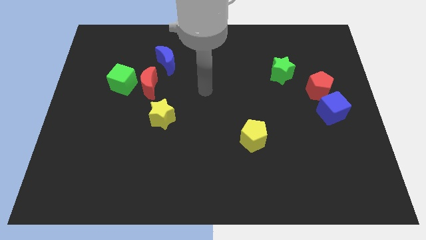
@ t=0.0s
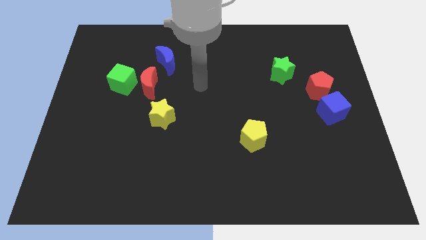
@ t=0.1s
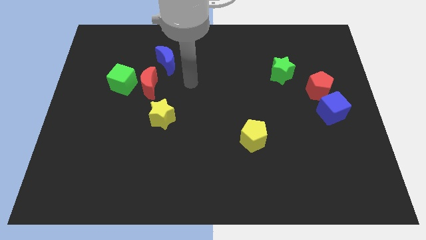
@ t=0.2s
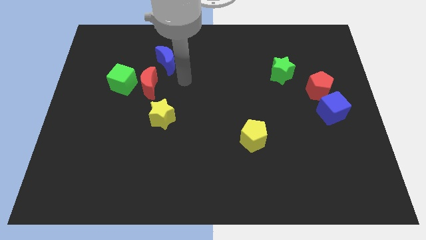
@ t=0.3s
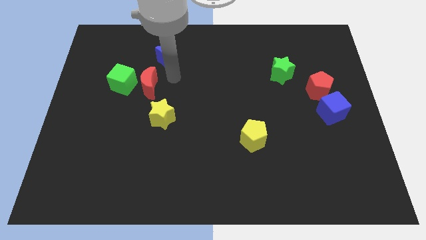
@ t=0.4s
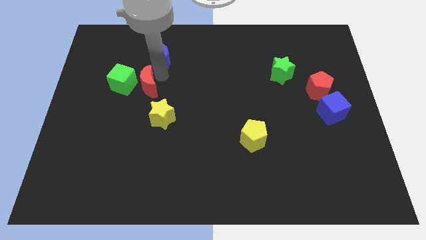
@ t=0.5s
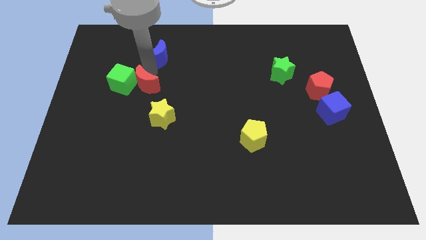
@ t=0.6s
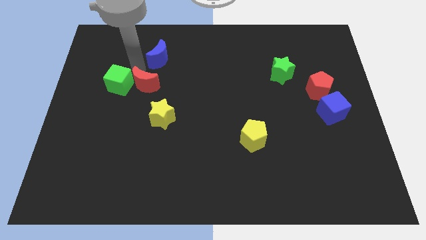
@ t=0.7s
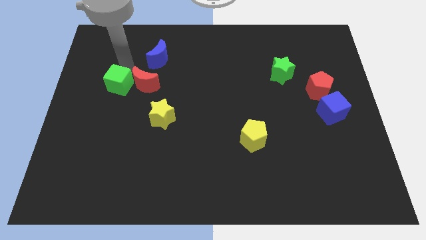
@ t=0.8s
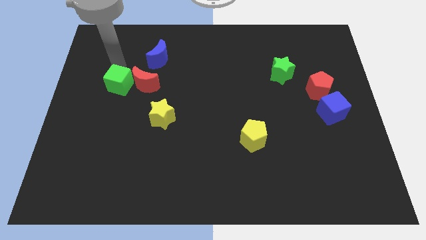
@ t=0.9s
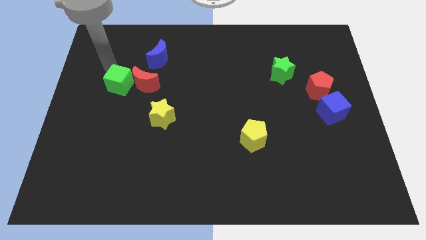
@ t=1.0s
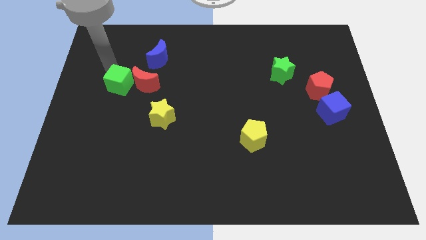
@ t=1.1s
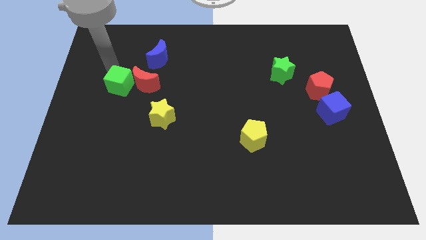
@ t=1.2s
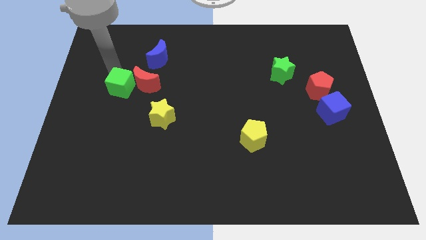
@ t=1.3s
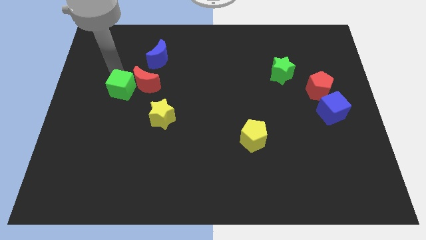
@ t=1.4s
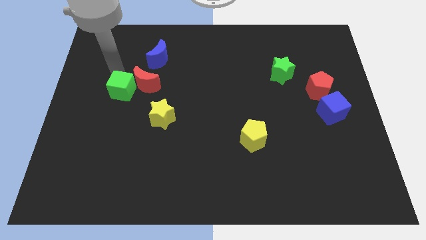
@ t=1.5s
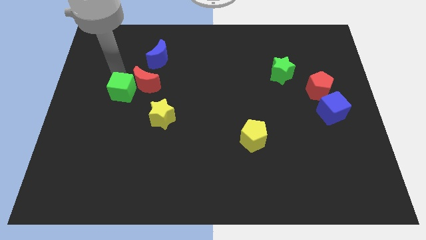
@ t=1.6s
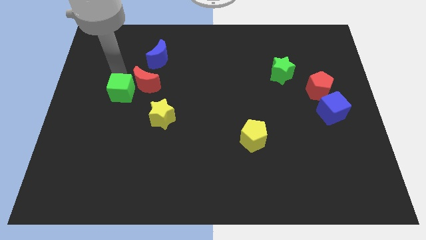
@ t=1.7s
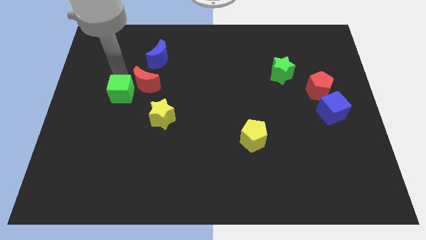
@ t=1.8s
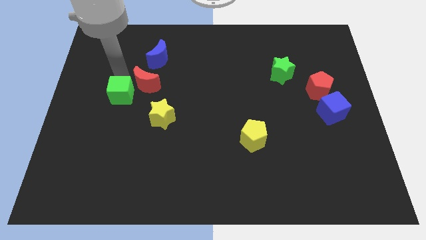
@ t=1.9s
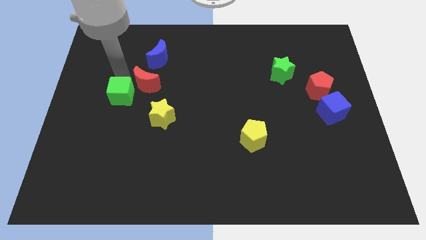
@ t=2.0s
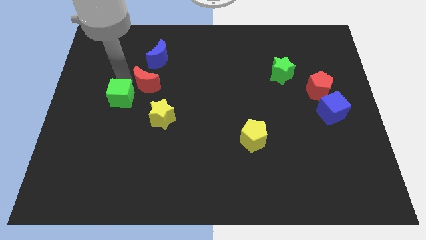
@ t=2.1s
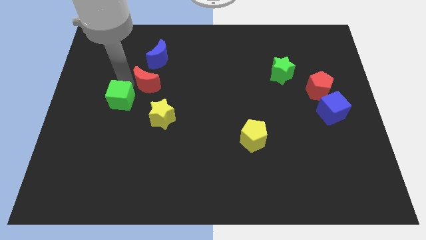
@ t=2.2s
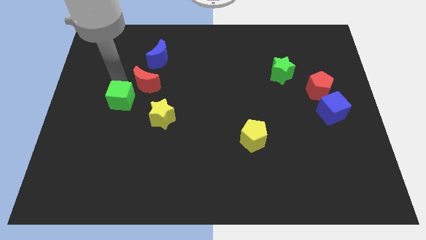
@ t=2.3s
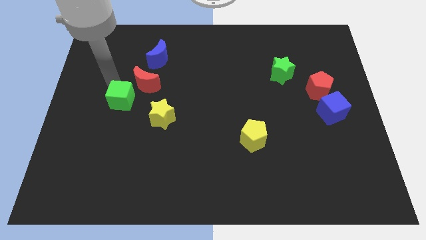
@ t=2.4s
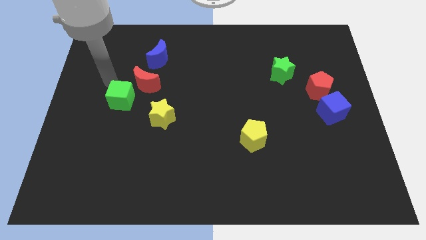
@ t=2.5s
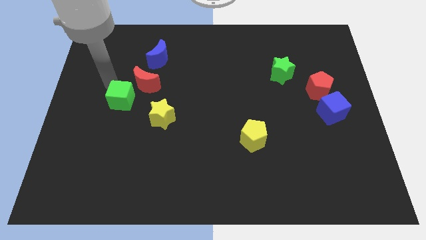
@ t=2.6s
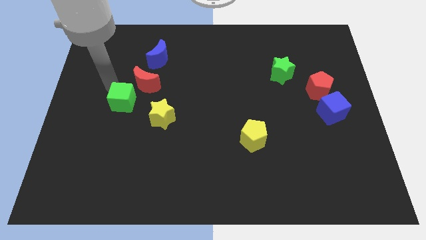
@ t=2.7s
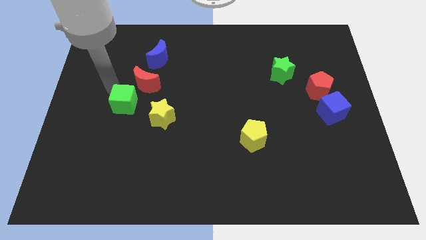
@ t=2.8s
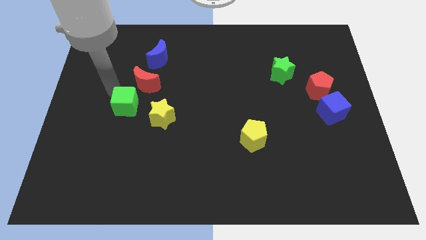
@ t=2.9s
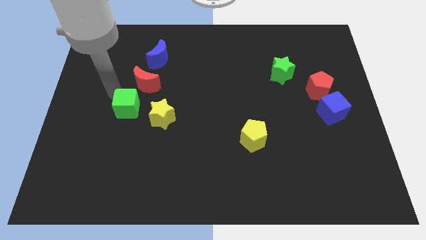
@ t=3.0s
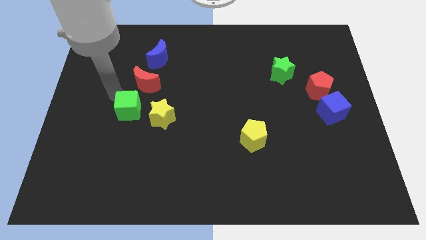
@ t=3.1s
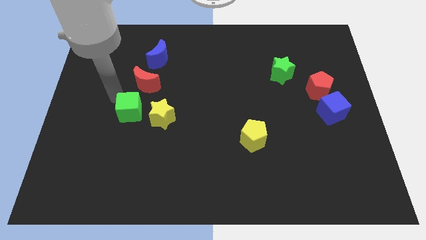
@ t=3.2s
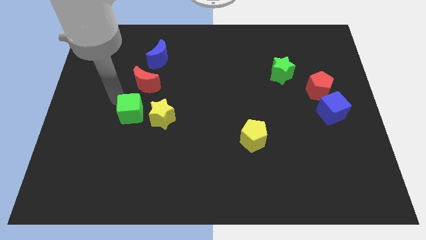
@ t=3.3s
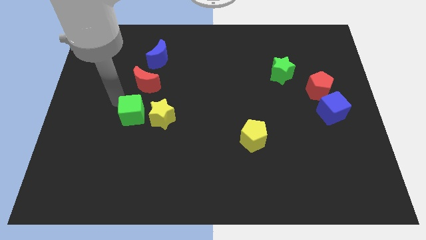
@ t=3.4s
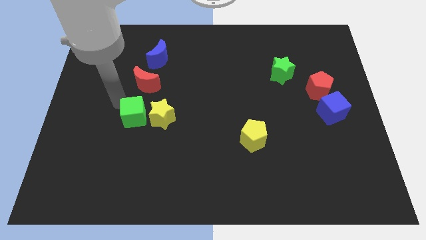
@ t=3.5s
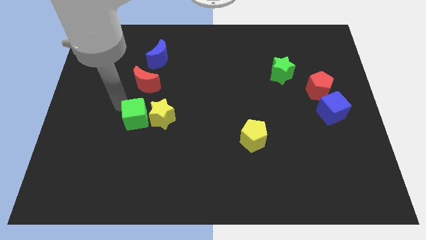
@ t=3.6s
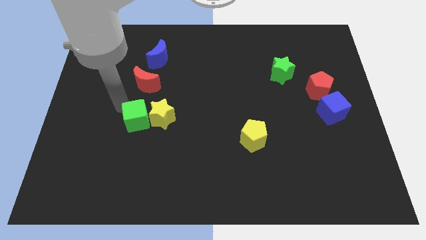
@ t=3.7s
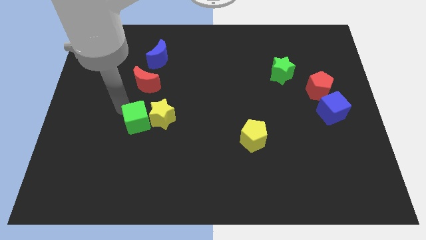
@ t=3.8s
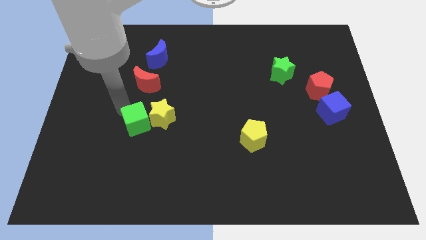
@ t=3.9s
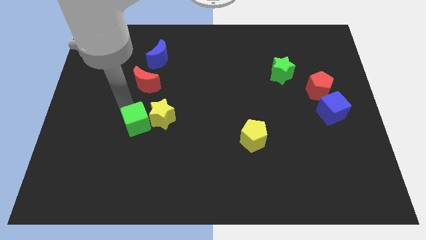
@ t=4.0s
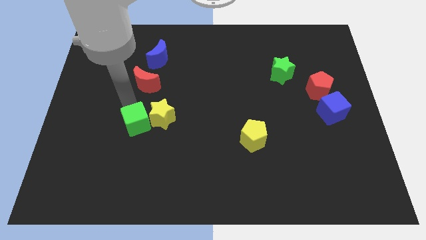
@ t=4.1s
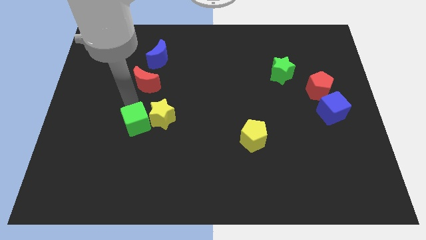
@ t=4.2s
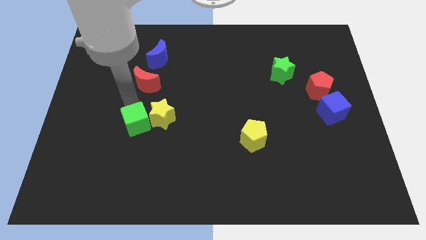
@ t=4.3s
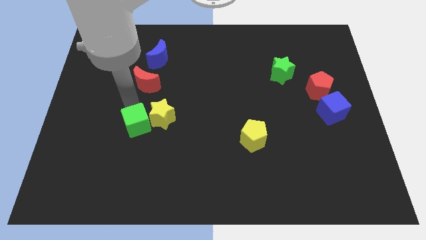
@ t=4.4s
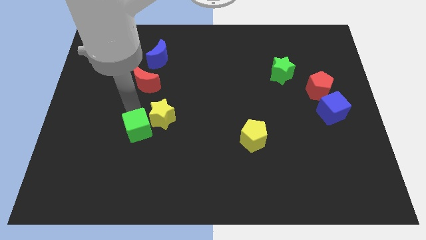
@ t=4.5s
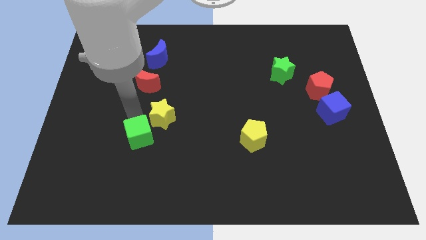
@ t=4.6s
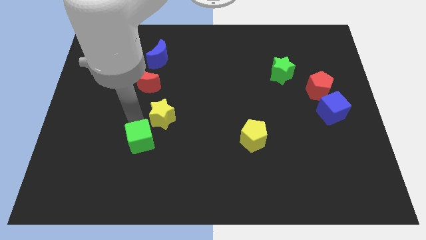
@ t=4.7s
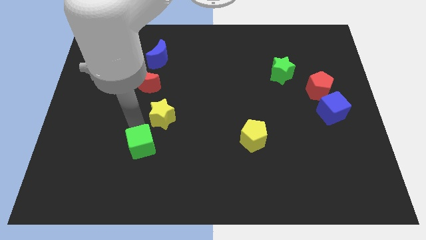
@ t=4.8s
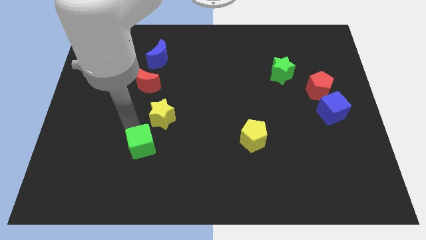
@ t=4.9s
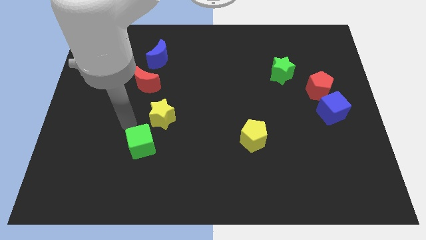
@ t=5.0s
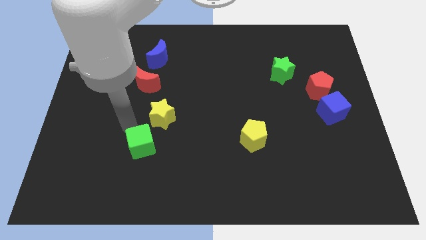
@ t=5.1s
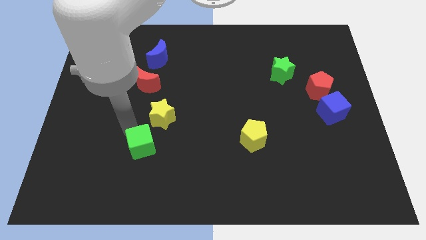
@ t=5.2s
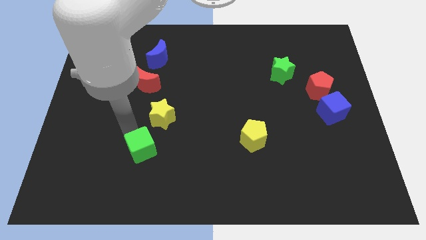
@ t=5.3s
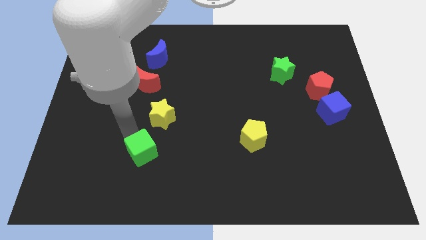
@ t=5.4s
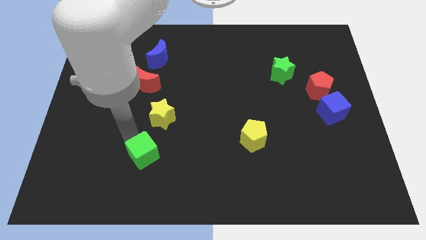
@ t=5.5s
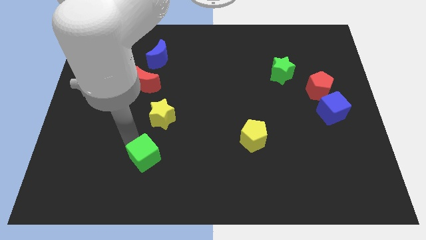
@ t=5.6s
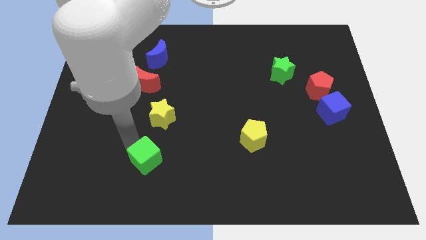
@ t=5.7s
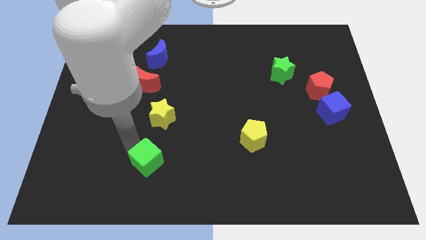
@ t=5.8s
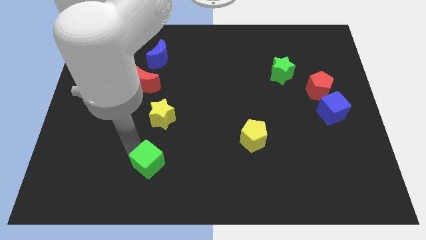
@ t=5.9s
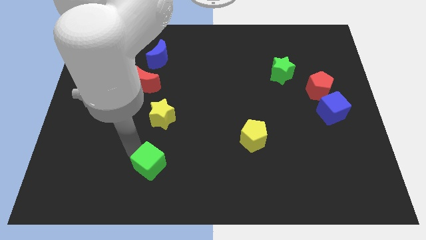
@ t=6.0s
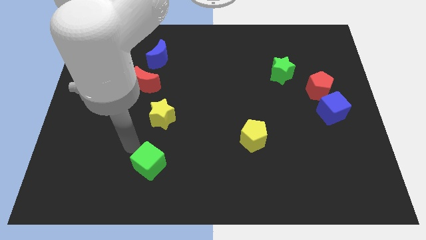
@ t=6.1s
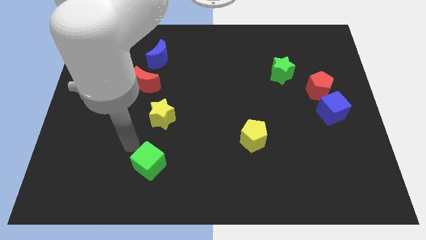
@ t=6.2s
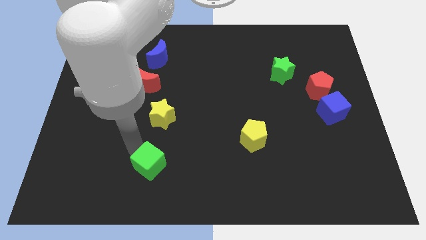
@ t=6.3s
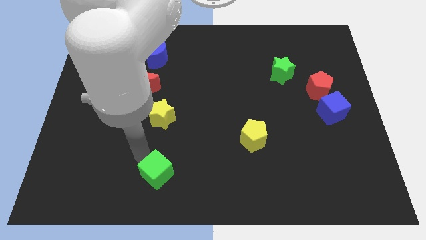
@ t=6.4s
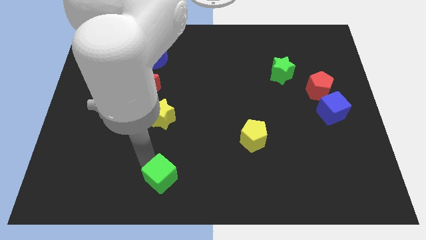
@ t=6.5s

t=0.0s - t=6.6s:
slide the green cube to the bottom side
